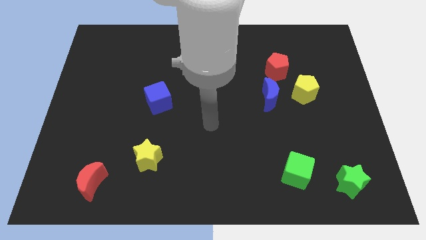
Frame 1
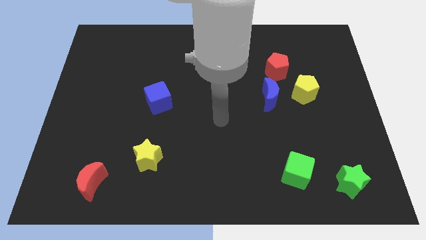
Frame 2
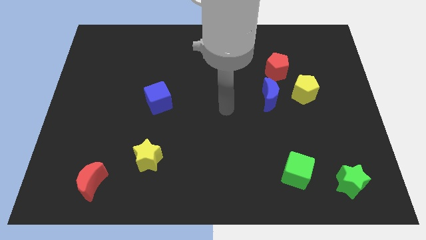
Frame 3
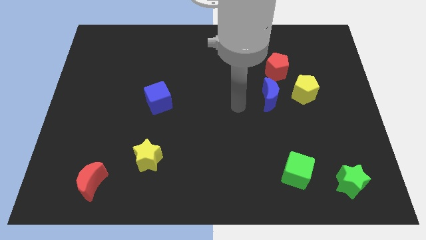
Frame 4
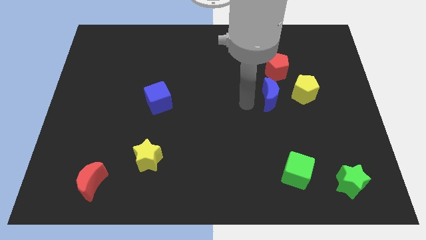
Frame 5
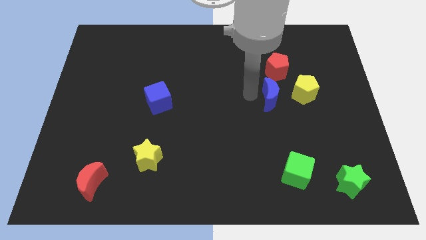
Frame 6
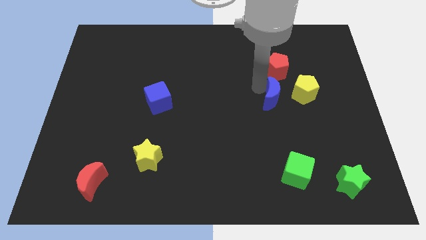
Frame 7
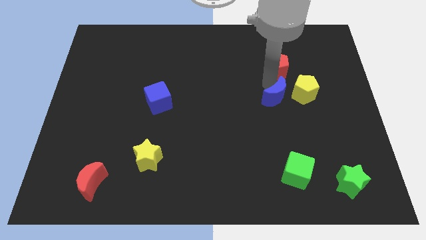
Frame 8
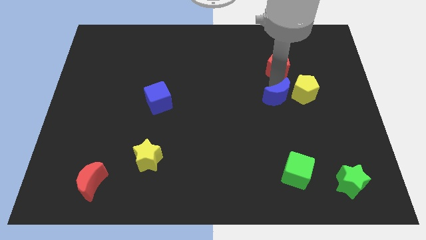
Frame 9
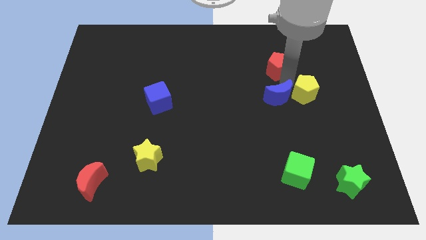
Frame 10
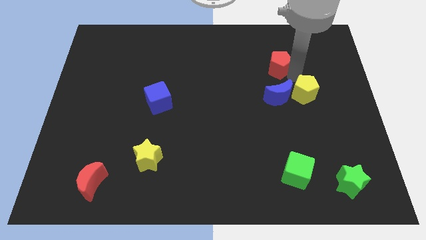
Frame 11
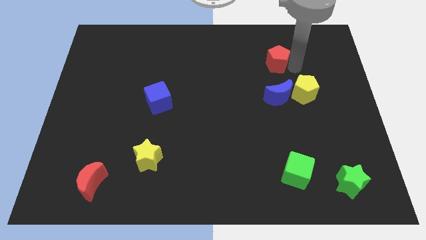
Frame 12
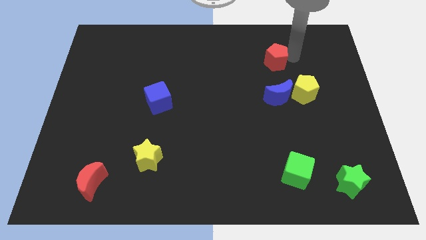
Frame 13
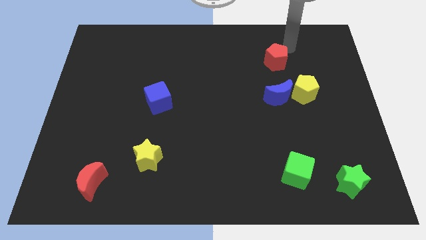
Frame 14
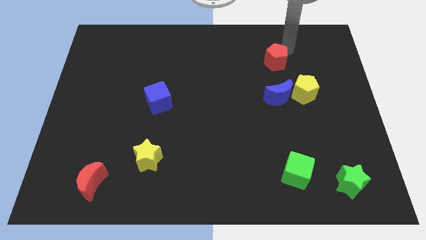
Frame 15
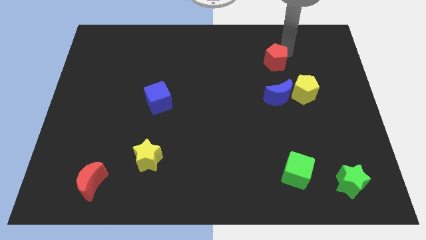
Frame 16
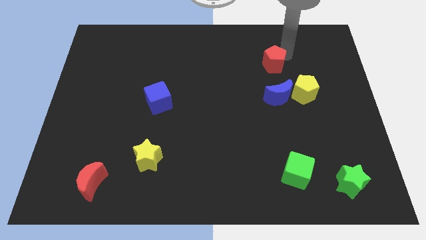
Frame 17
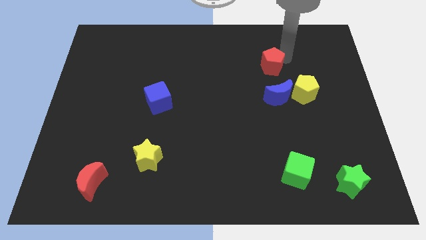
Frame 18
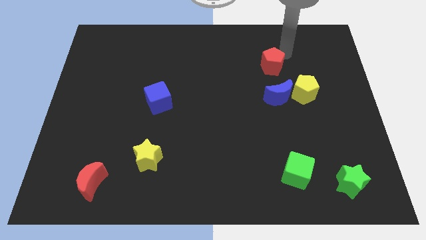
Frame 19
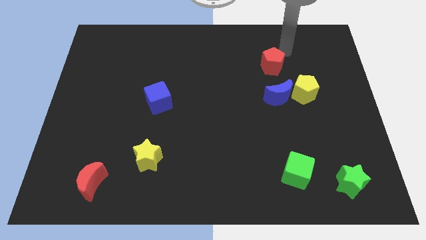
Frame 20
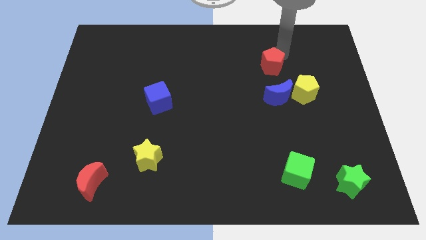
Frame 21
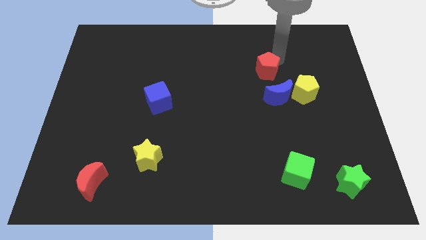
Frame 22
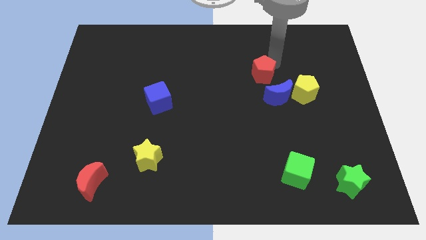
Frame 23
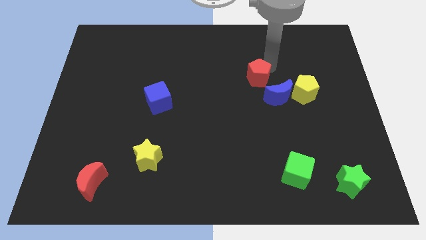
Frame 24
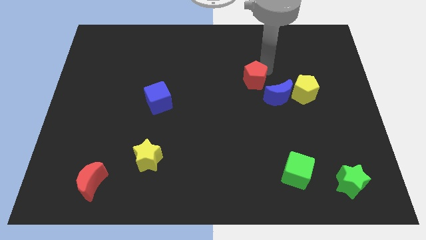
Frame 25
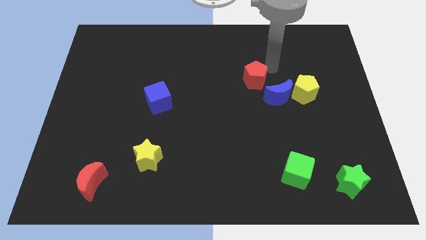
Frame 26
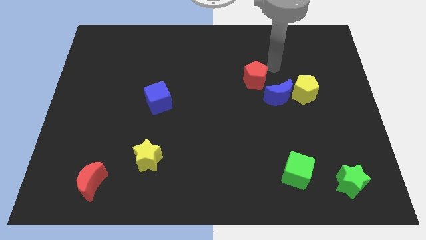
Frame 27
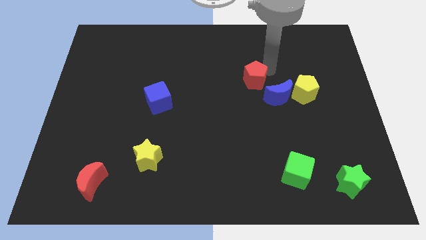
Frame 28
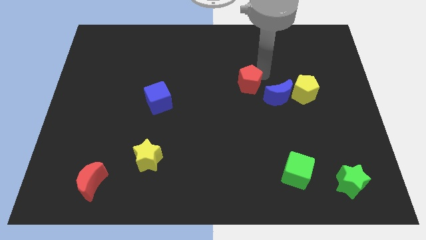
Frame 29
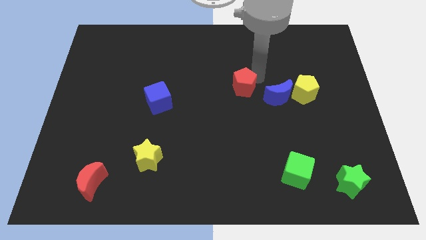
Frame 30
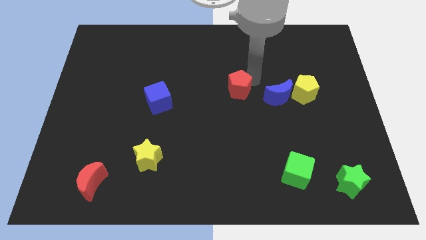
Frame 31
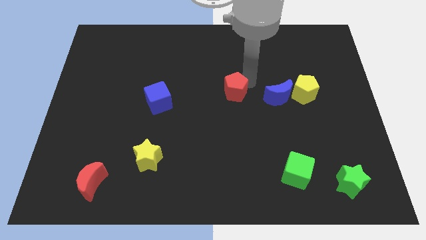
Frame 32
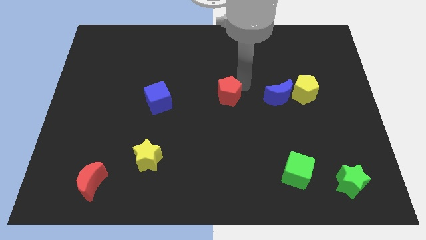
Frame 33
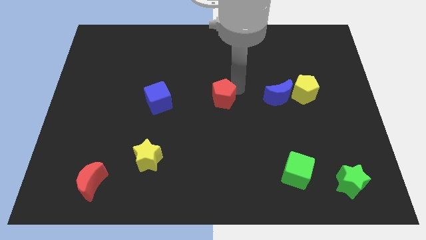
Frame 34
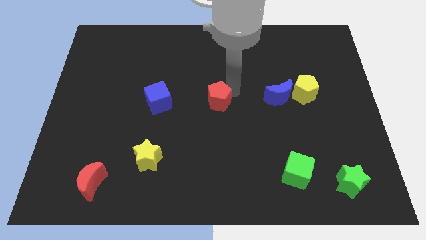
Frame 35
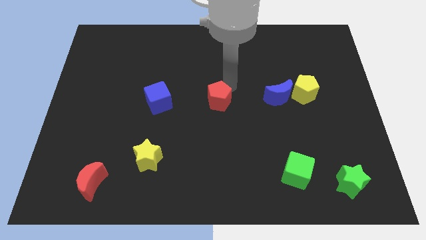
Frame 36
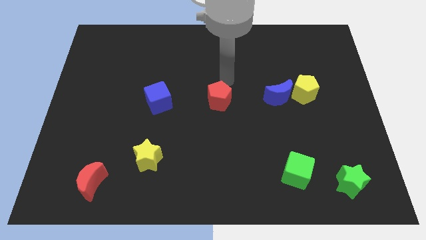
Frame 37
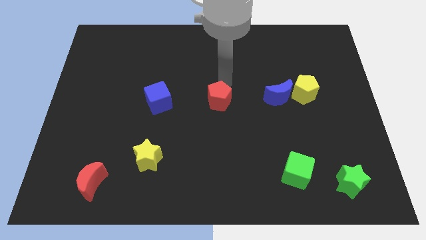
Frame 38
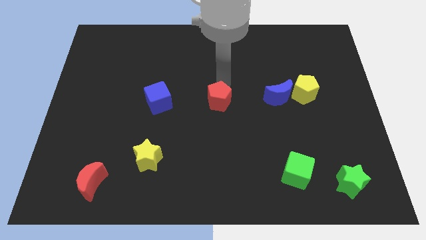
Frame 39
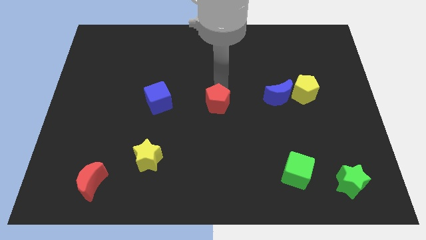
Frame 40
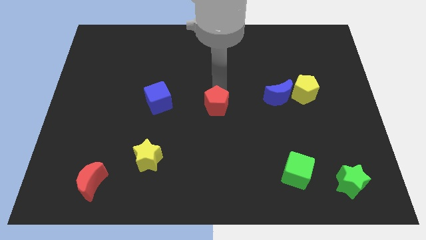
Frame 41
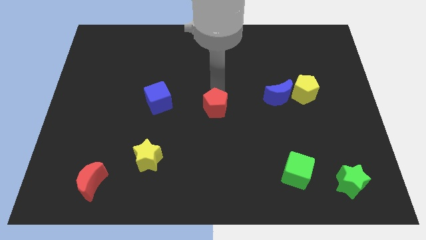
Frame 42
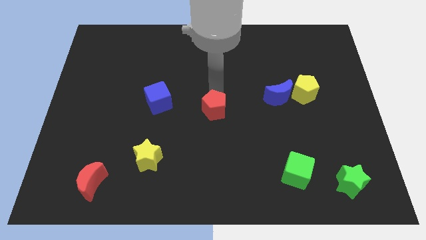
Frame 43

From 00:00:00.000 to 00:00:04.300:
slide the red pentagon down and then to the left

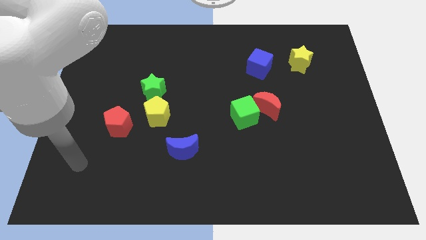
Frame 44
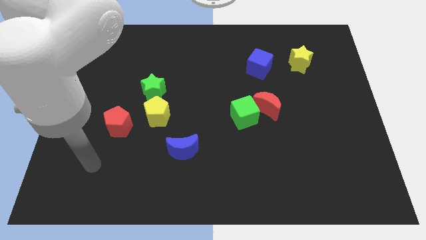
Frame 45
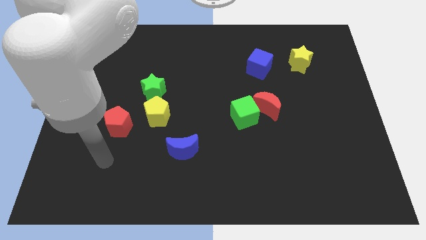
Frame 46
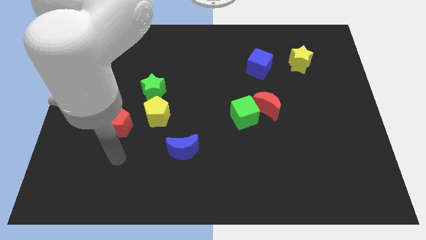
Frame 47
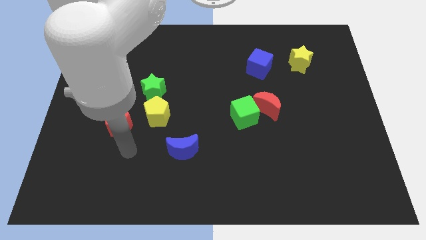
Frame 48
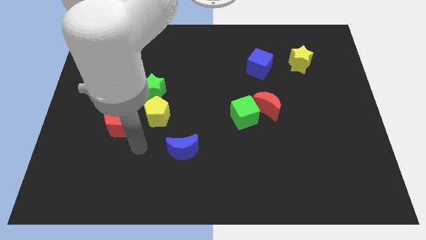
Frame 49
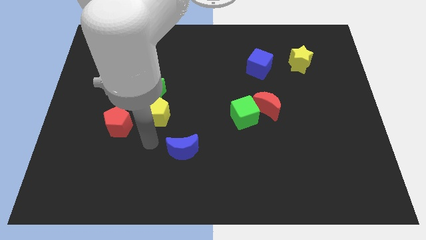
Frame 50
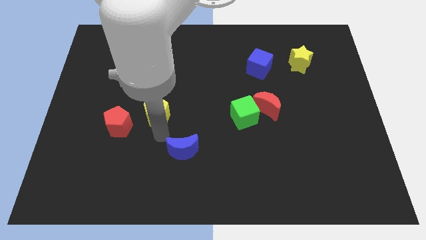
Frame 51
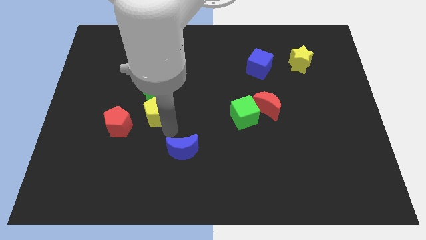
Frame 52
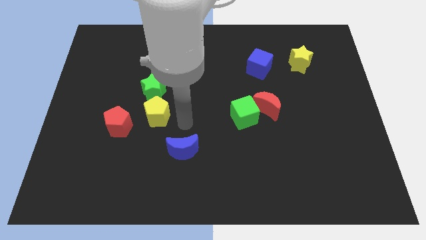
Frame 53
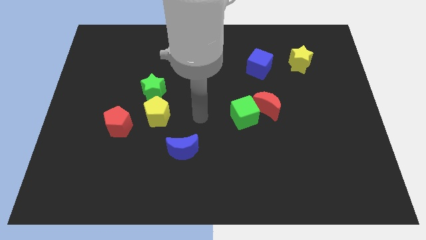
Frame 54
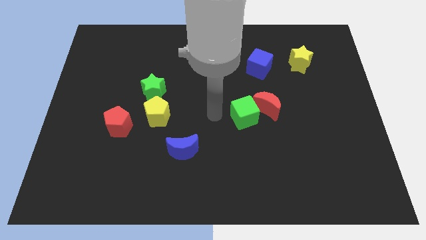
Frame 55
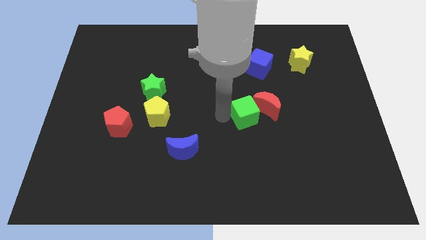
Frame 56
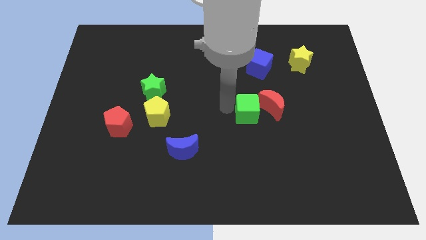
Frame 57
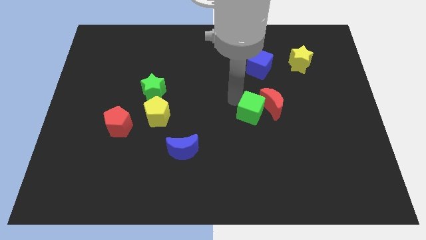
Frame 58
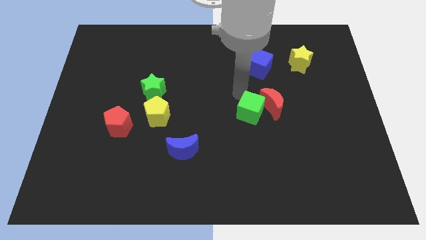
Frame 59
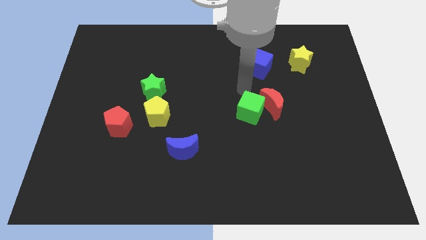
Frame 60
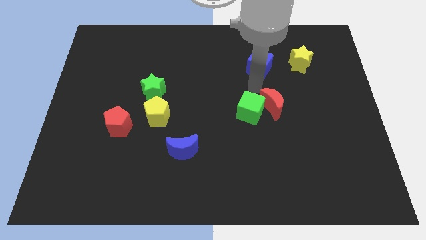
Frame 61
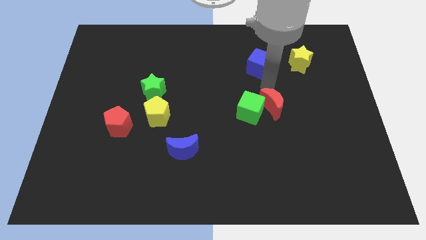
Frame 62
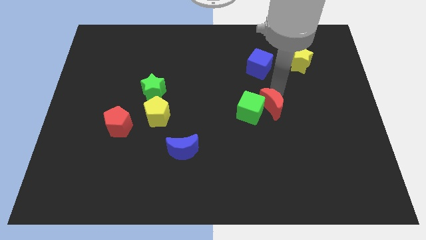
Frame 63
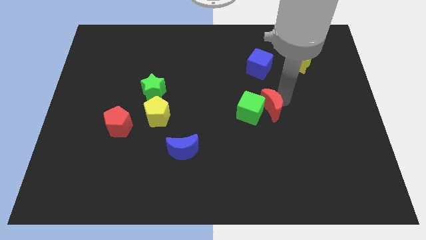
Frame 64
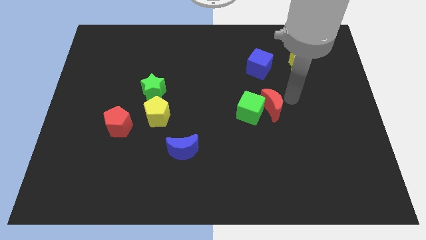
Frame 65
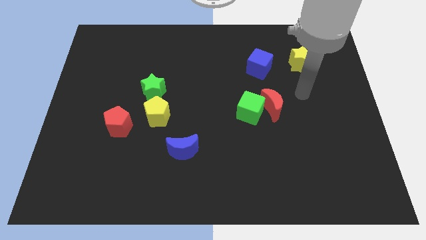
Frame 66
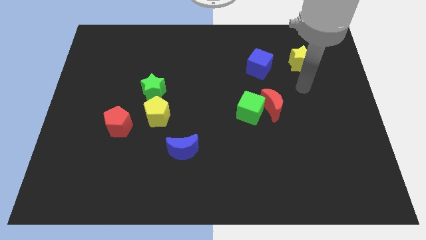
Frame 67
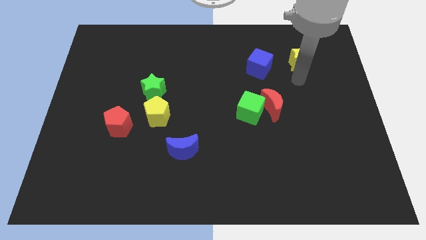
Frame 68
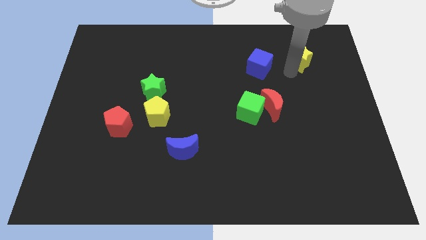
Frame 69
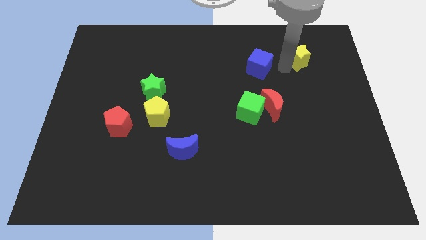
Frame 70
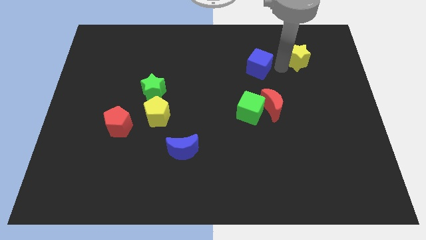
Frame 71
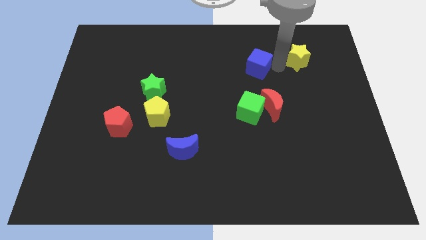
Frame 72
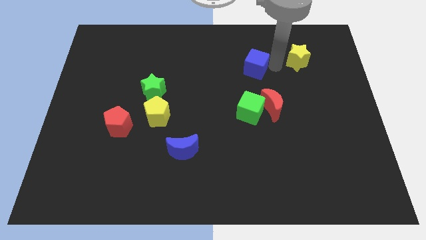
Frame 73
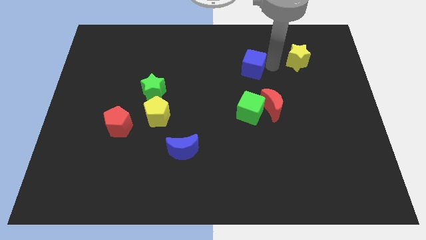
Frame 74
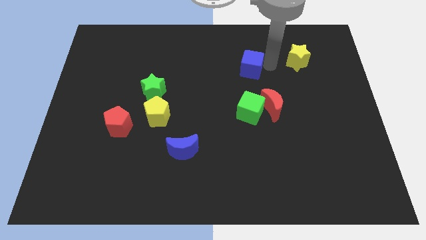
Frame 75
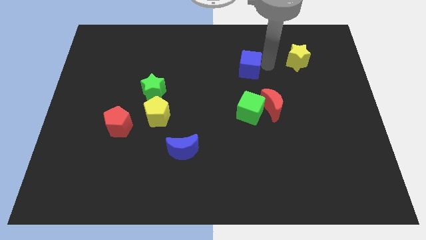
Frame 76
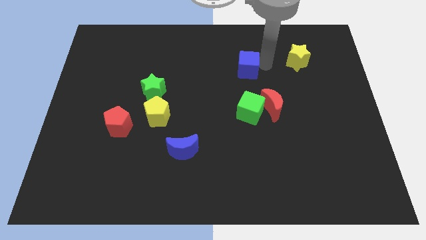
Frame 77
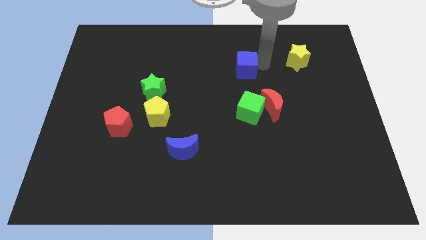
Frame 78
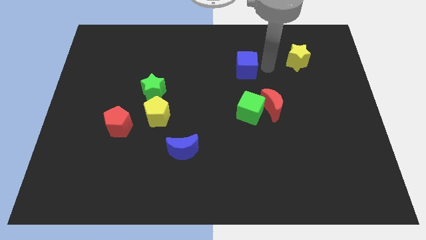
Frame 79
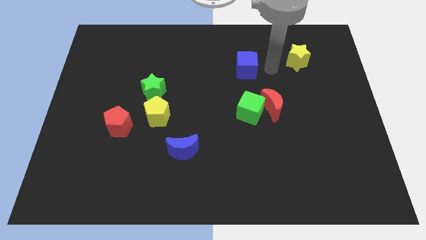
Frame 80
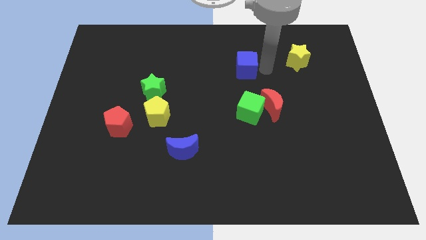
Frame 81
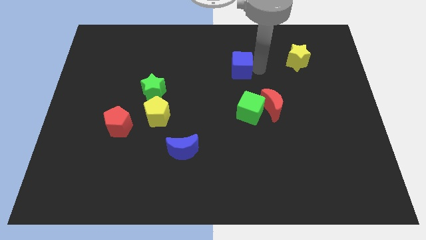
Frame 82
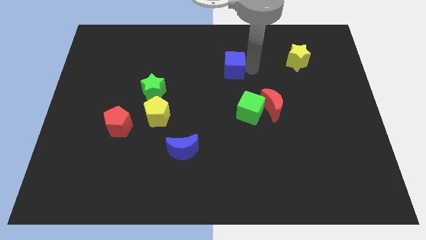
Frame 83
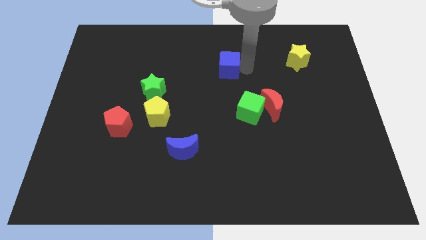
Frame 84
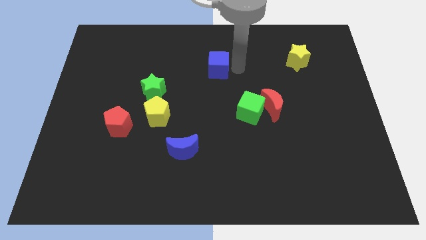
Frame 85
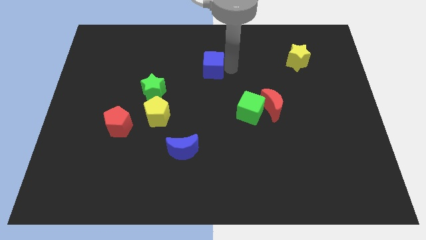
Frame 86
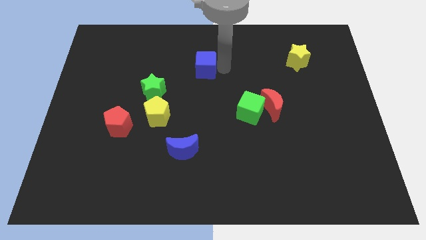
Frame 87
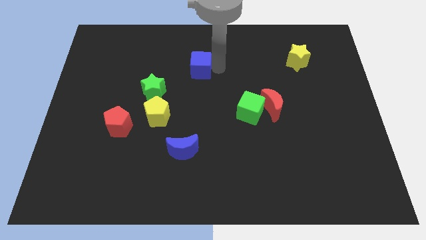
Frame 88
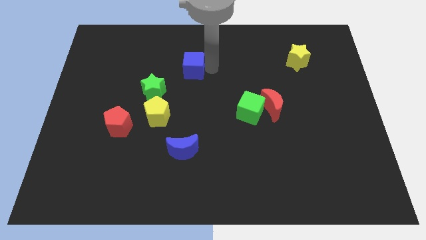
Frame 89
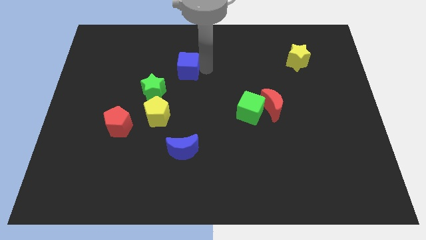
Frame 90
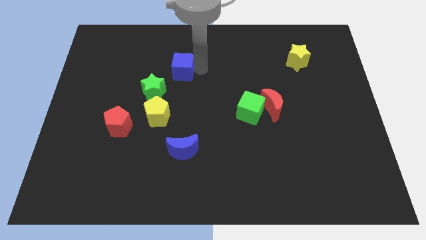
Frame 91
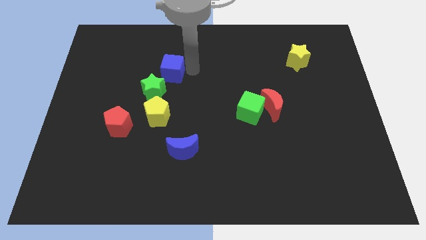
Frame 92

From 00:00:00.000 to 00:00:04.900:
slide the blue cube to the left
